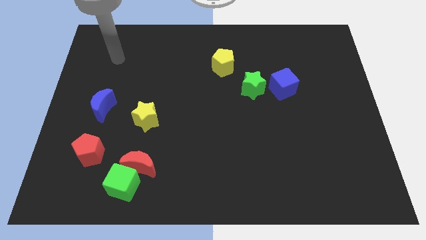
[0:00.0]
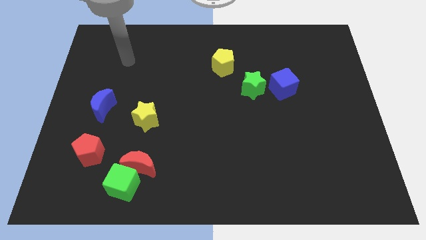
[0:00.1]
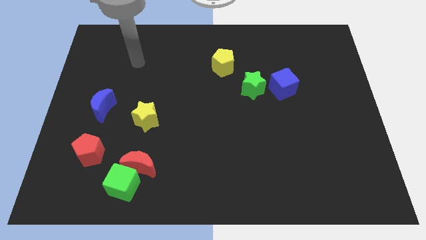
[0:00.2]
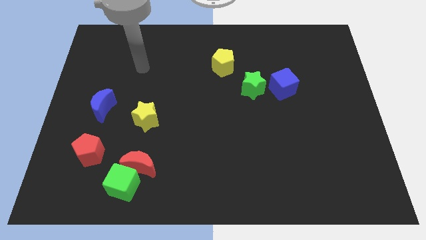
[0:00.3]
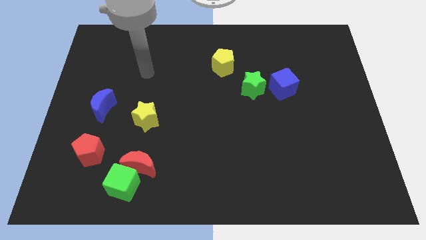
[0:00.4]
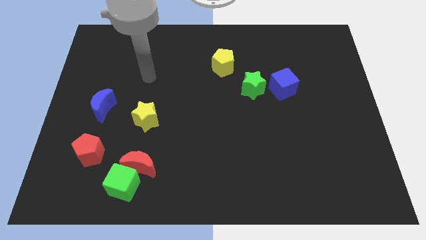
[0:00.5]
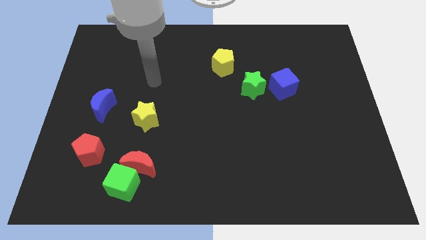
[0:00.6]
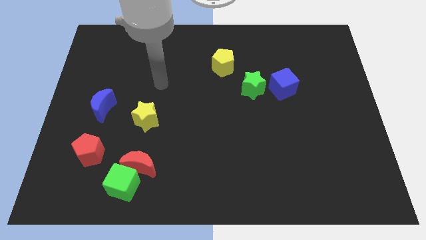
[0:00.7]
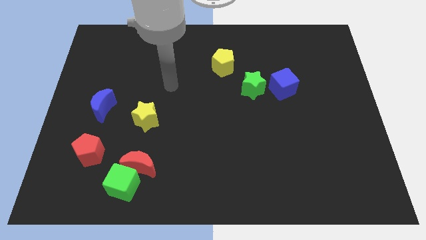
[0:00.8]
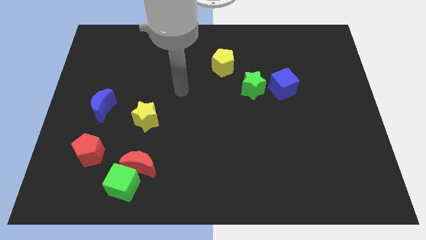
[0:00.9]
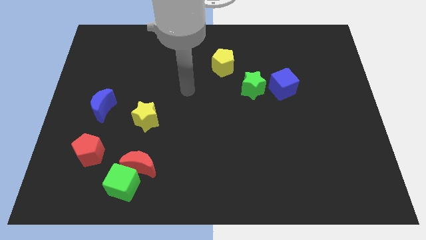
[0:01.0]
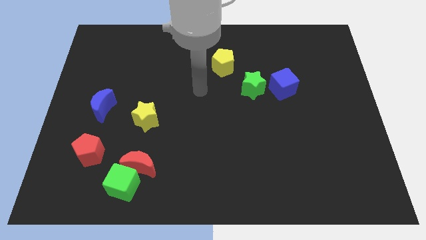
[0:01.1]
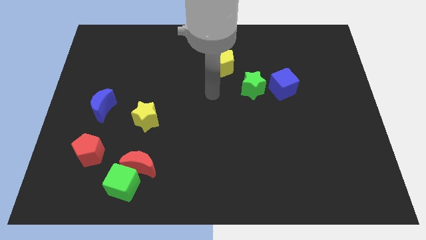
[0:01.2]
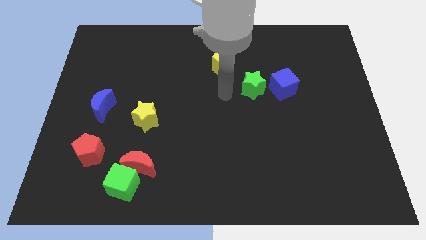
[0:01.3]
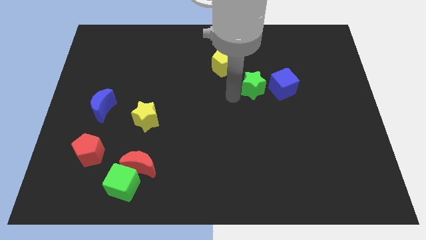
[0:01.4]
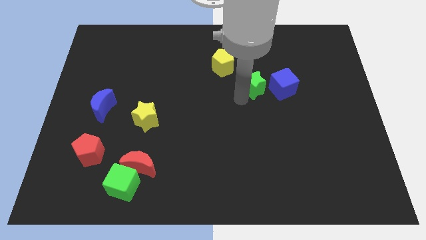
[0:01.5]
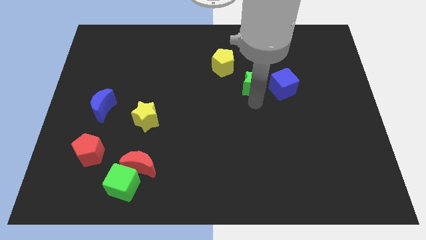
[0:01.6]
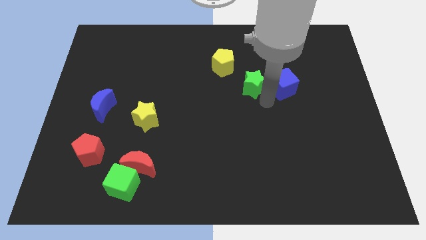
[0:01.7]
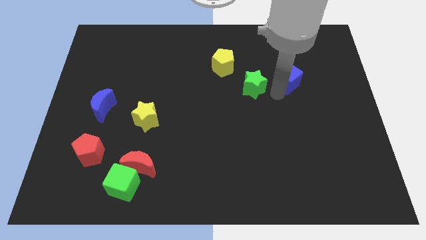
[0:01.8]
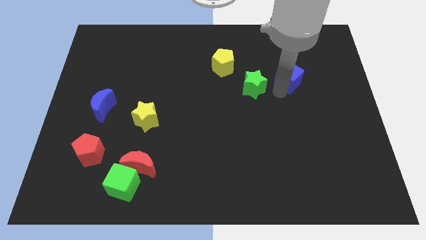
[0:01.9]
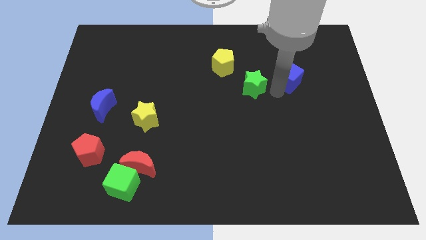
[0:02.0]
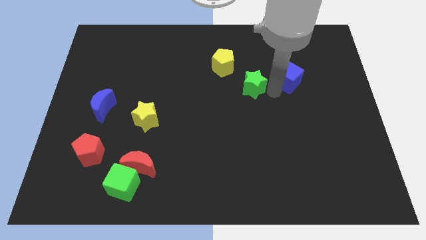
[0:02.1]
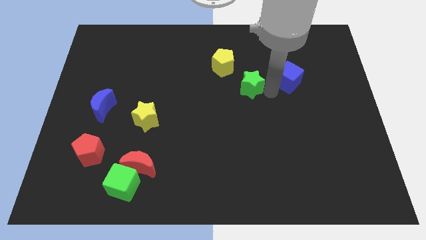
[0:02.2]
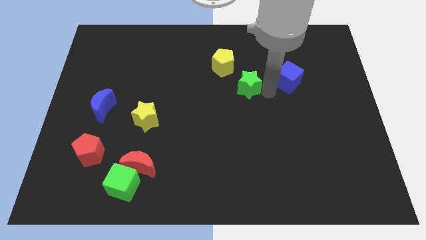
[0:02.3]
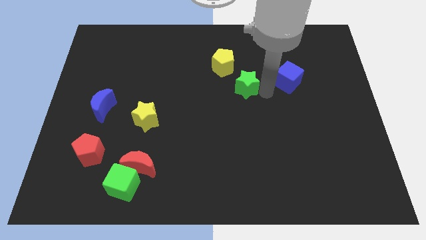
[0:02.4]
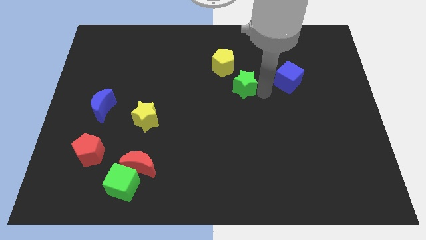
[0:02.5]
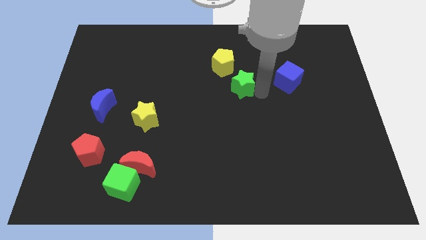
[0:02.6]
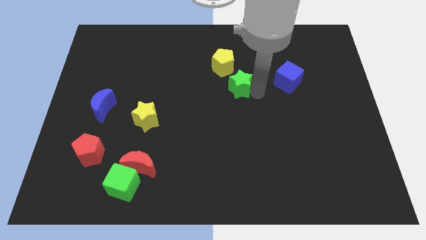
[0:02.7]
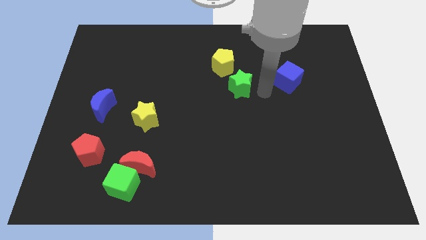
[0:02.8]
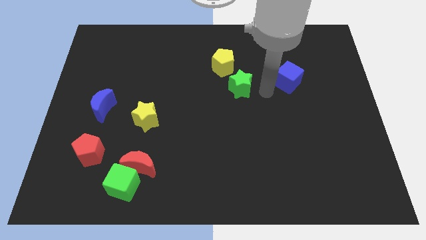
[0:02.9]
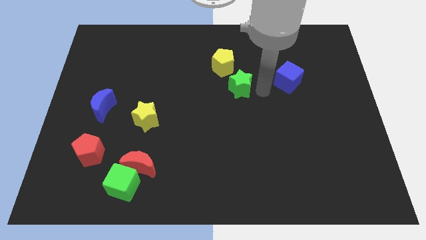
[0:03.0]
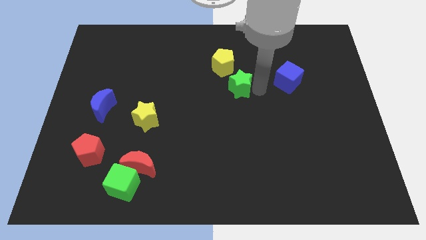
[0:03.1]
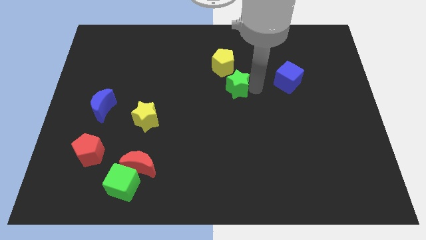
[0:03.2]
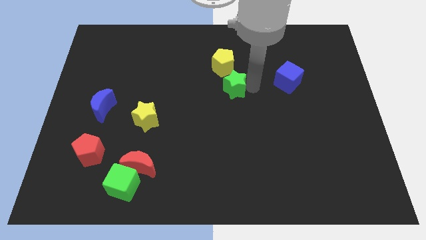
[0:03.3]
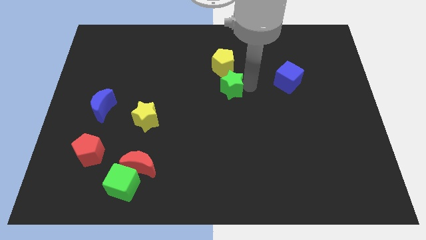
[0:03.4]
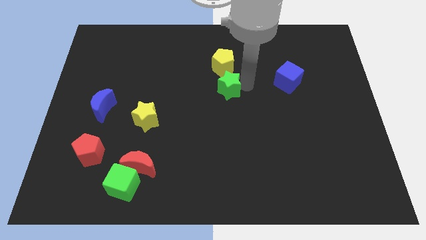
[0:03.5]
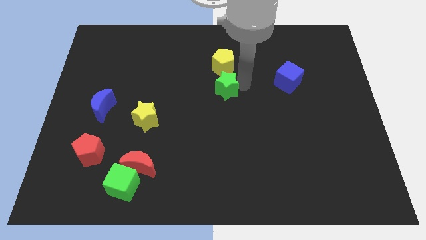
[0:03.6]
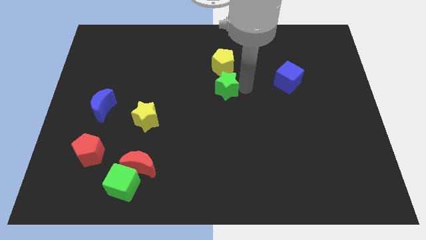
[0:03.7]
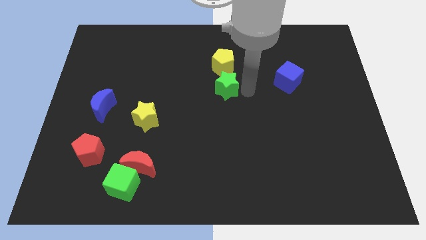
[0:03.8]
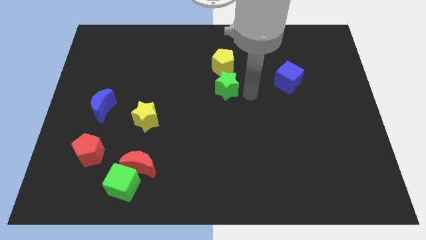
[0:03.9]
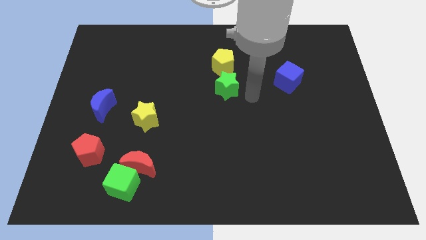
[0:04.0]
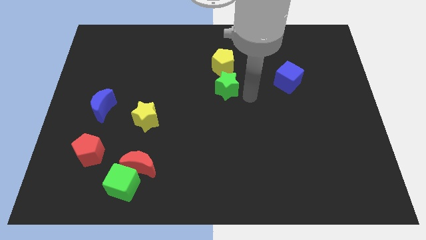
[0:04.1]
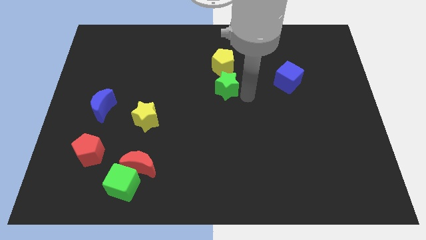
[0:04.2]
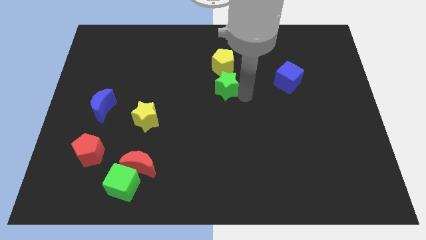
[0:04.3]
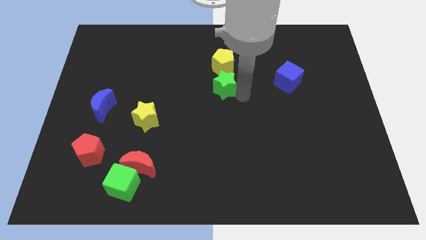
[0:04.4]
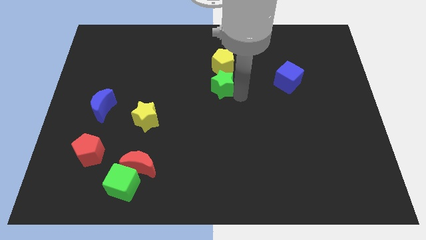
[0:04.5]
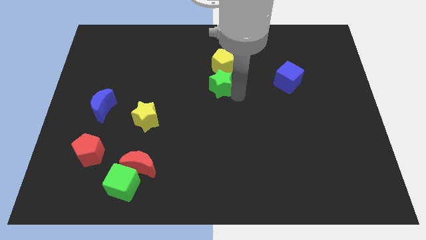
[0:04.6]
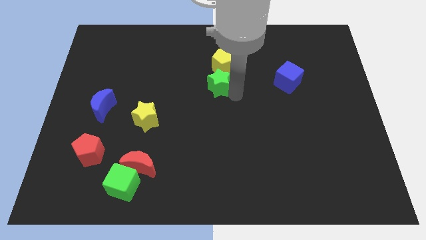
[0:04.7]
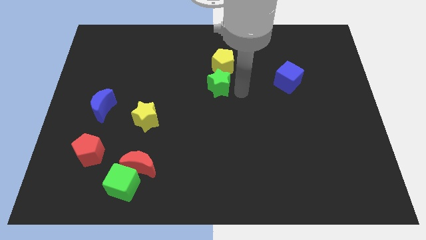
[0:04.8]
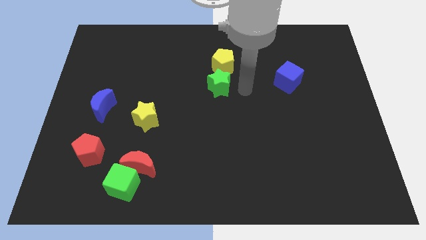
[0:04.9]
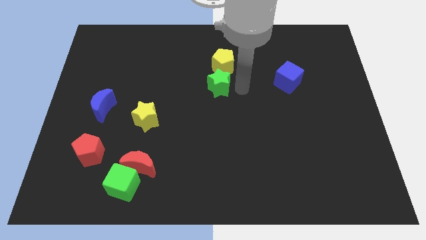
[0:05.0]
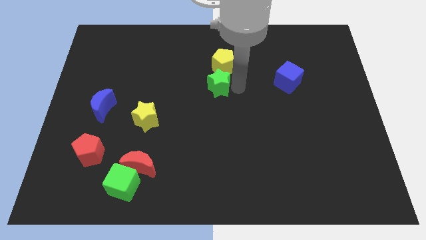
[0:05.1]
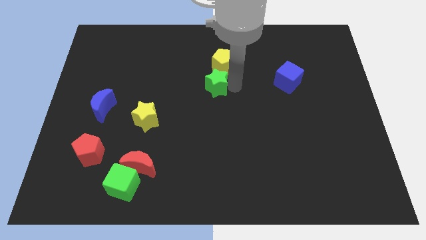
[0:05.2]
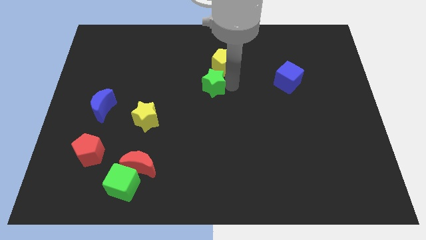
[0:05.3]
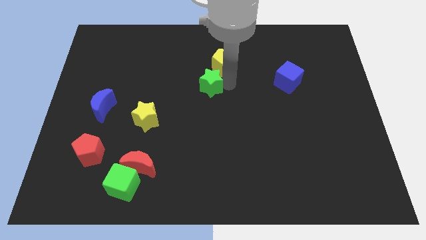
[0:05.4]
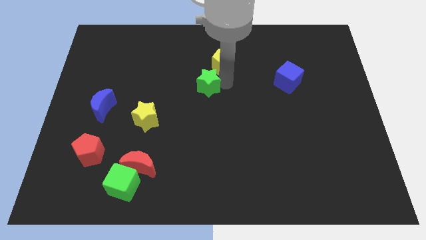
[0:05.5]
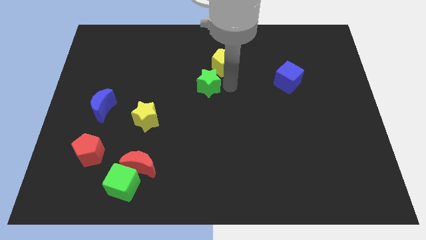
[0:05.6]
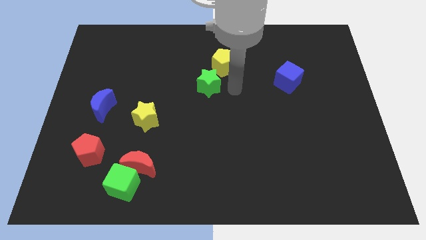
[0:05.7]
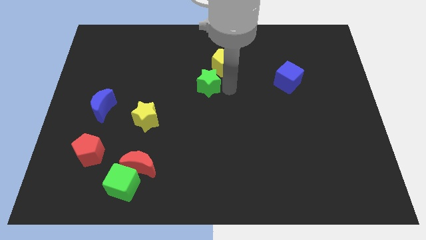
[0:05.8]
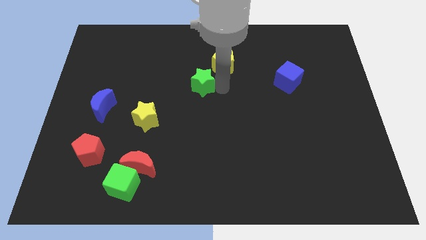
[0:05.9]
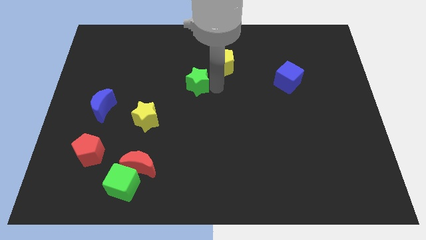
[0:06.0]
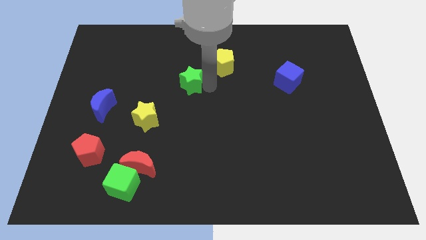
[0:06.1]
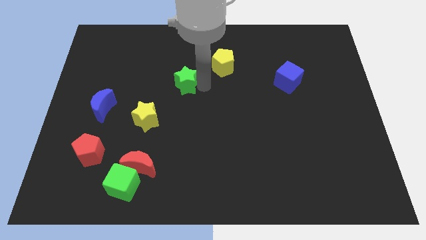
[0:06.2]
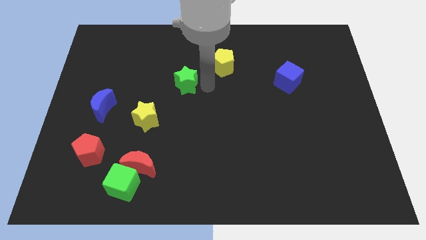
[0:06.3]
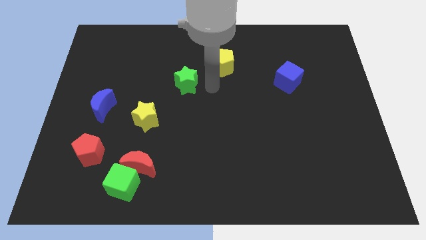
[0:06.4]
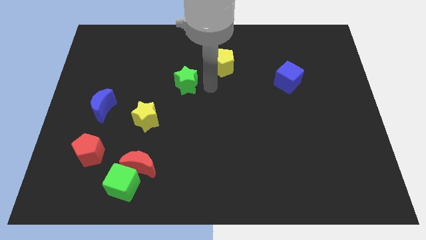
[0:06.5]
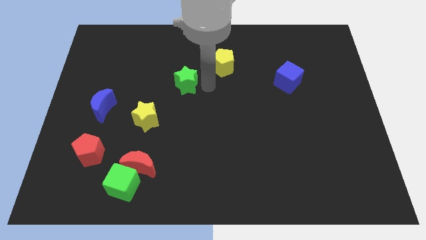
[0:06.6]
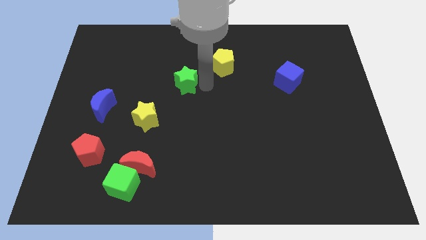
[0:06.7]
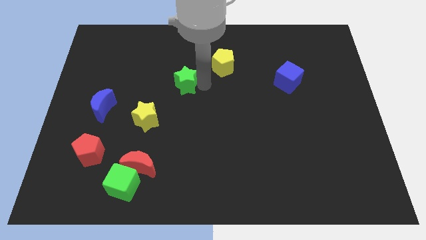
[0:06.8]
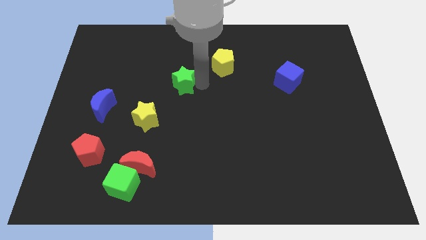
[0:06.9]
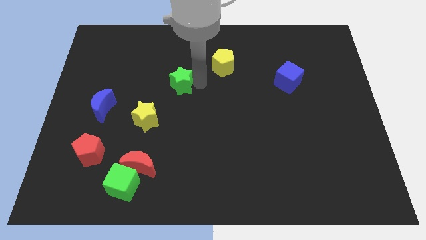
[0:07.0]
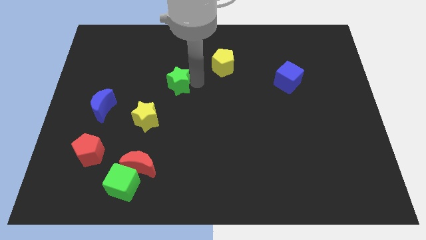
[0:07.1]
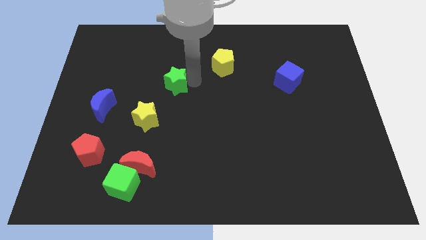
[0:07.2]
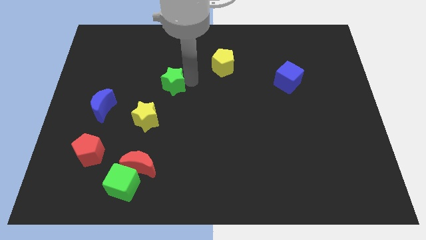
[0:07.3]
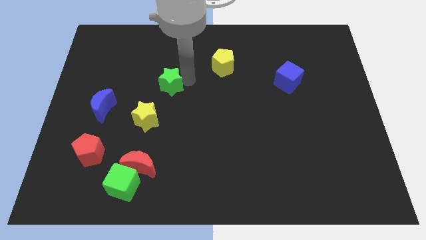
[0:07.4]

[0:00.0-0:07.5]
move the green star to the left

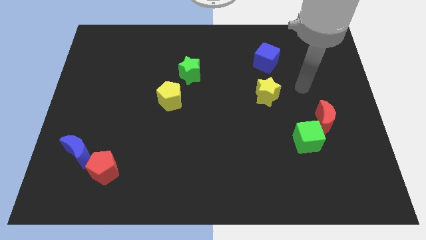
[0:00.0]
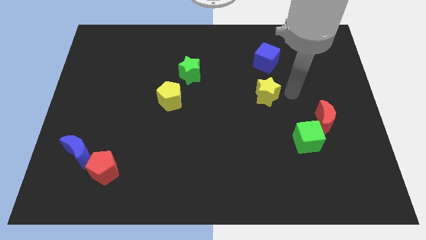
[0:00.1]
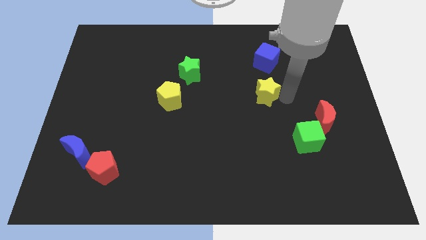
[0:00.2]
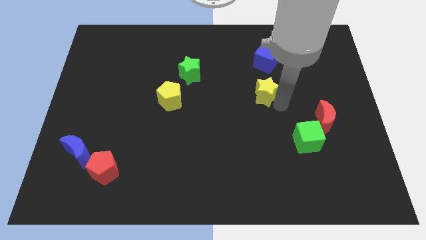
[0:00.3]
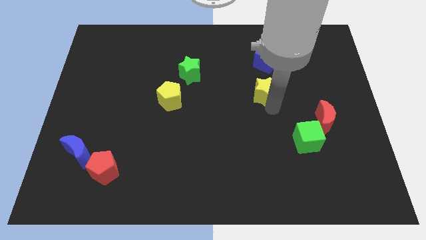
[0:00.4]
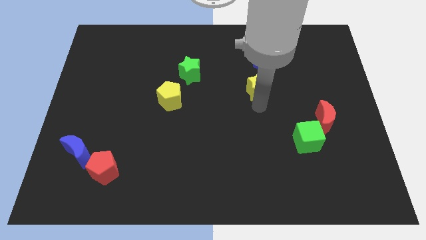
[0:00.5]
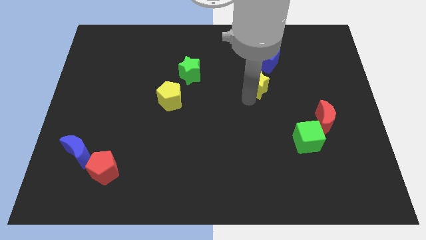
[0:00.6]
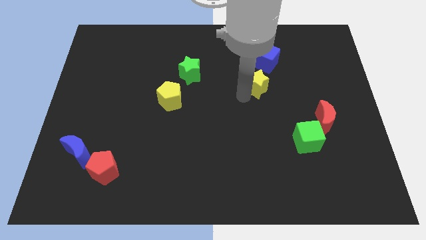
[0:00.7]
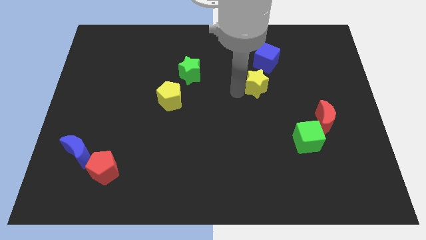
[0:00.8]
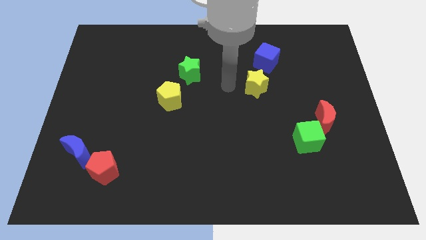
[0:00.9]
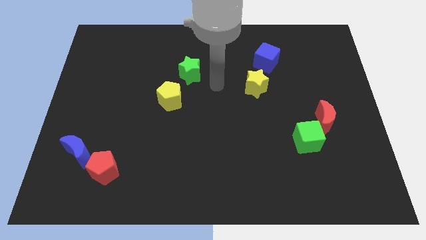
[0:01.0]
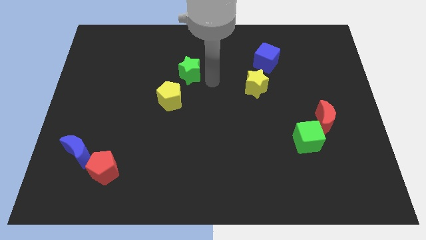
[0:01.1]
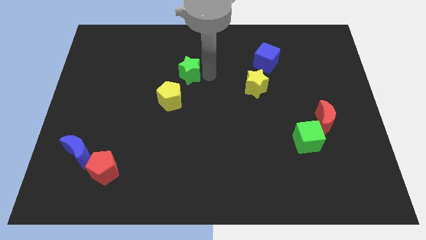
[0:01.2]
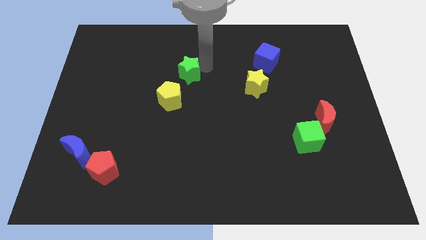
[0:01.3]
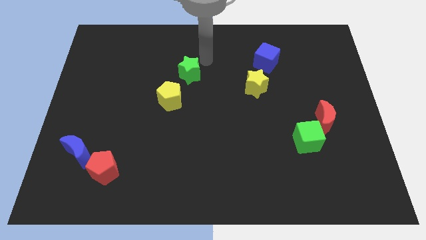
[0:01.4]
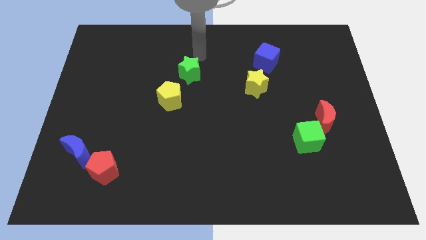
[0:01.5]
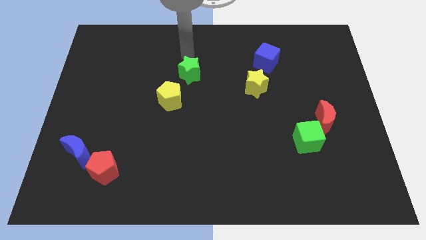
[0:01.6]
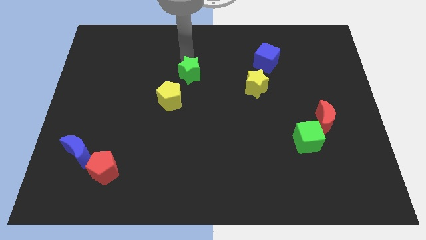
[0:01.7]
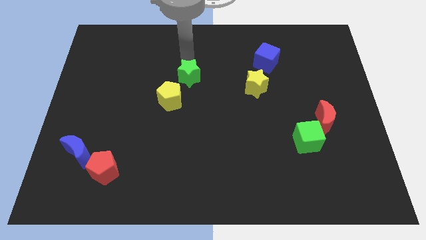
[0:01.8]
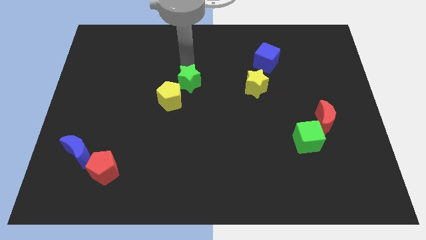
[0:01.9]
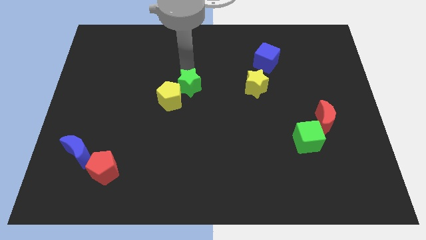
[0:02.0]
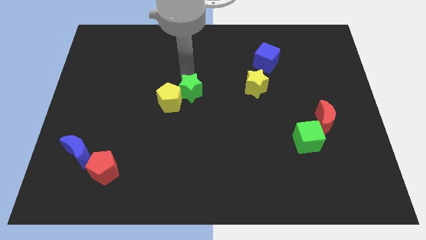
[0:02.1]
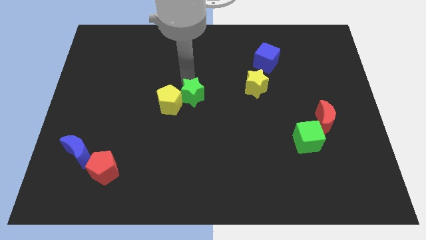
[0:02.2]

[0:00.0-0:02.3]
move the green star down a little bit
